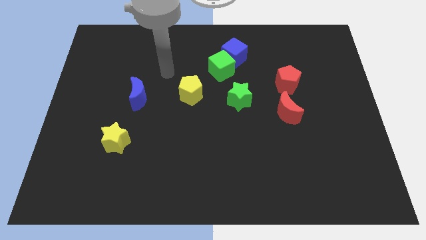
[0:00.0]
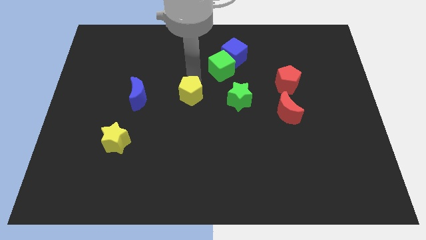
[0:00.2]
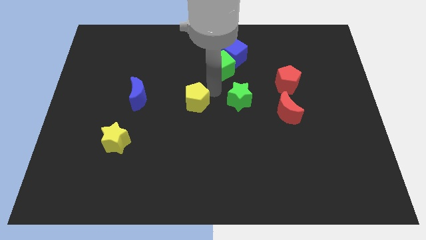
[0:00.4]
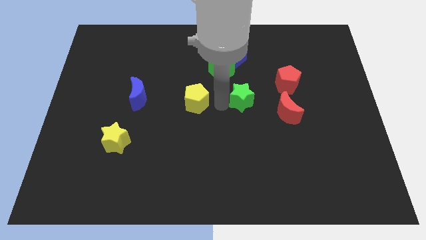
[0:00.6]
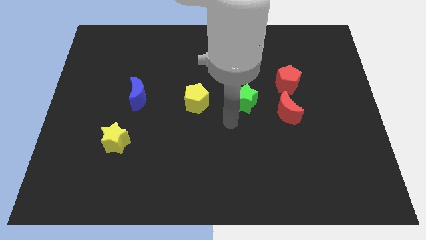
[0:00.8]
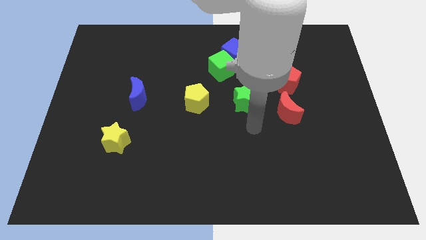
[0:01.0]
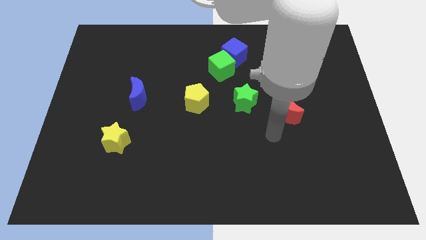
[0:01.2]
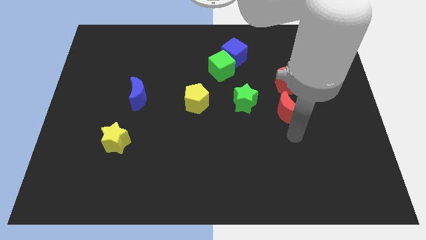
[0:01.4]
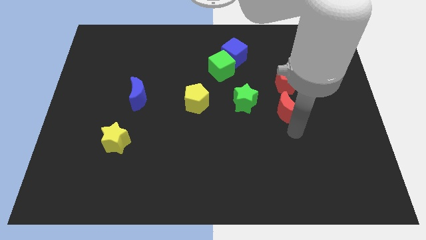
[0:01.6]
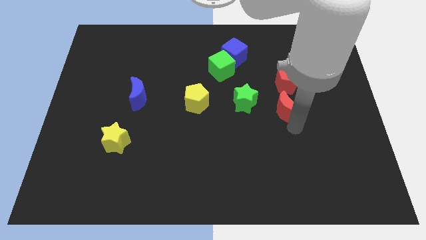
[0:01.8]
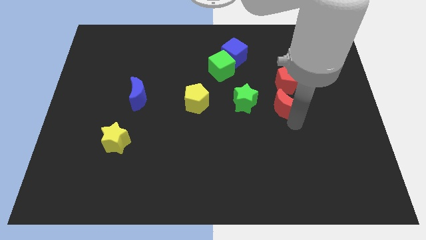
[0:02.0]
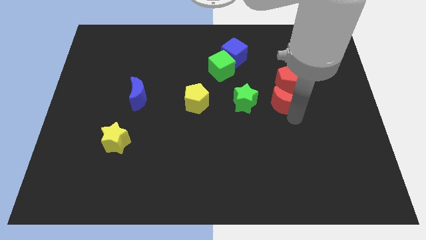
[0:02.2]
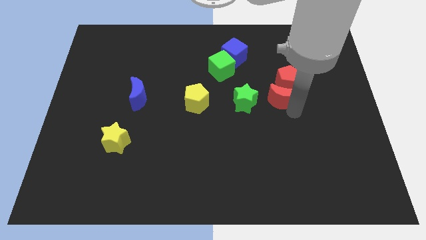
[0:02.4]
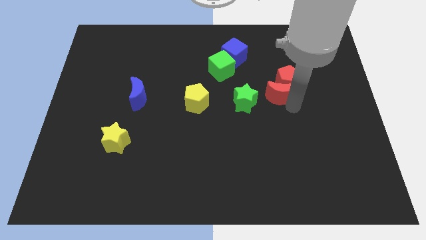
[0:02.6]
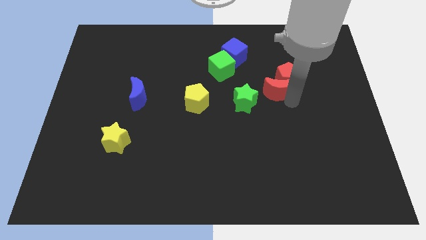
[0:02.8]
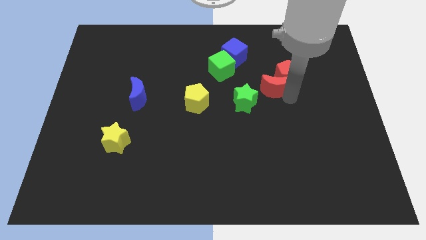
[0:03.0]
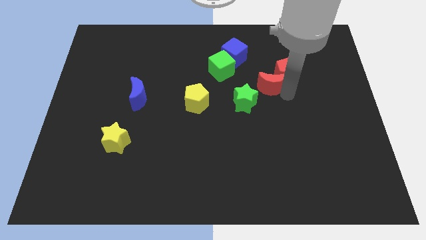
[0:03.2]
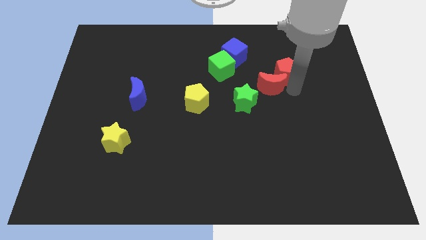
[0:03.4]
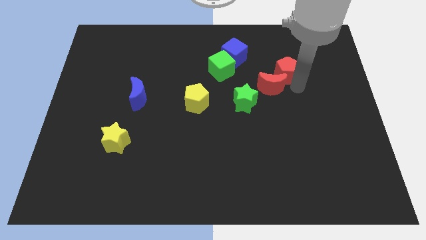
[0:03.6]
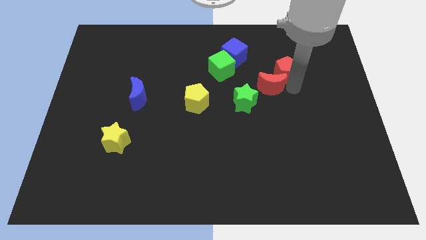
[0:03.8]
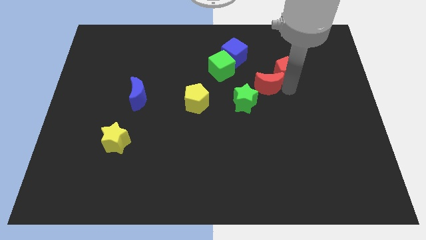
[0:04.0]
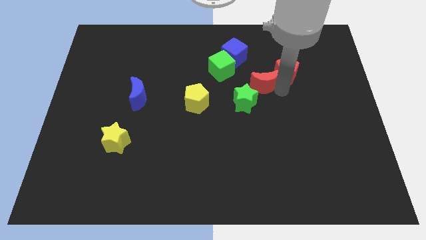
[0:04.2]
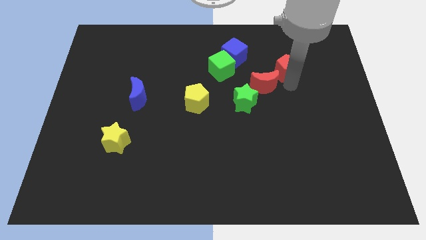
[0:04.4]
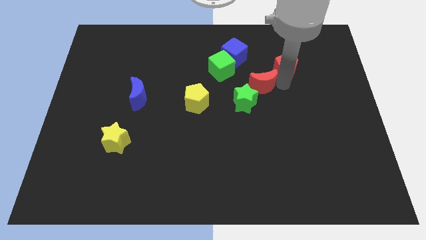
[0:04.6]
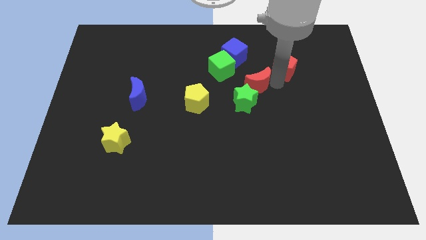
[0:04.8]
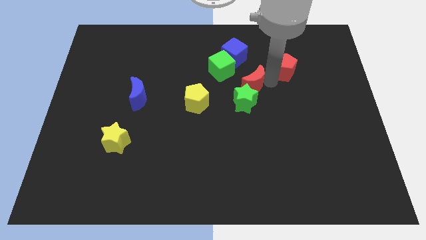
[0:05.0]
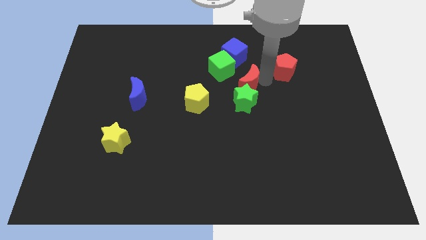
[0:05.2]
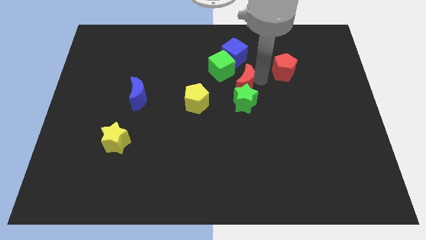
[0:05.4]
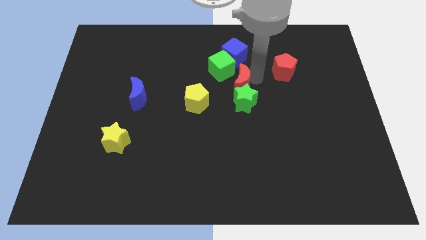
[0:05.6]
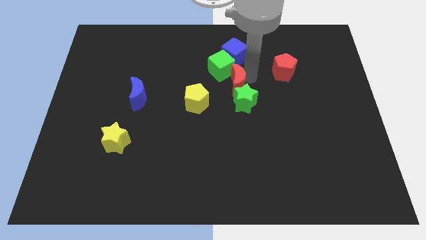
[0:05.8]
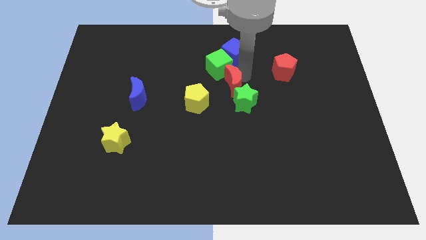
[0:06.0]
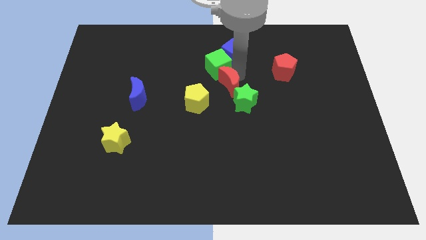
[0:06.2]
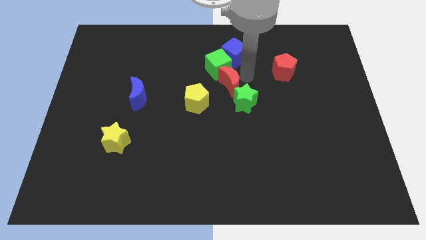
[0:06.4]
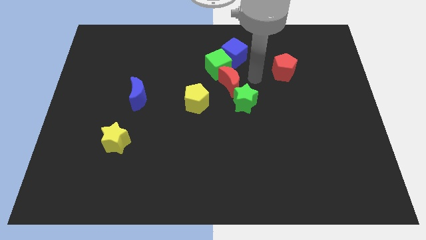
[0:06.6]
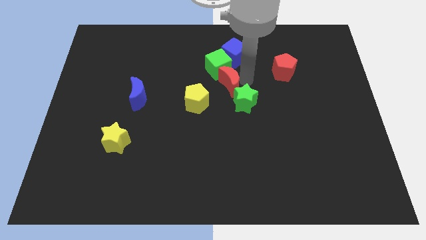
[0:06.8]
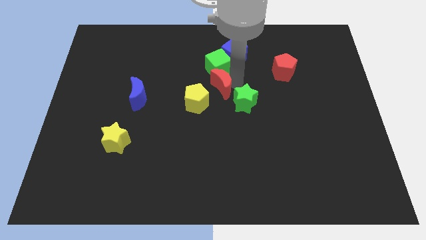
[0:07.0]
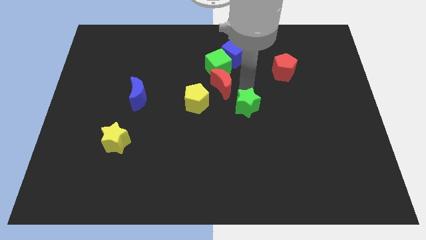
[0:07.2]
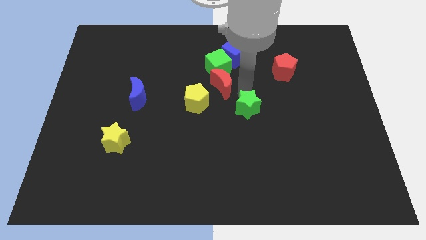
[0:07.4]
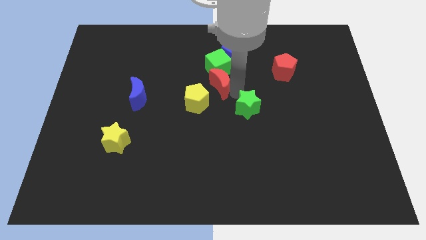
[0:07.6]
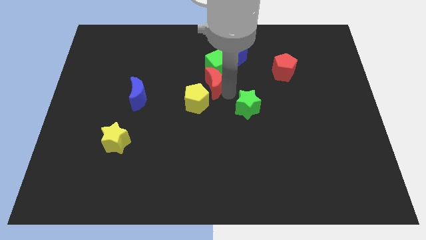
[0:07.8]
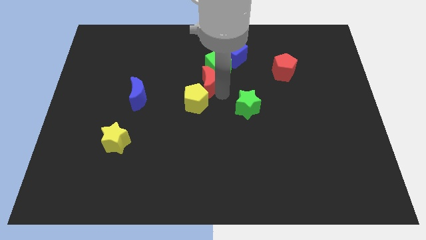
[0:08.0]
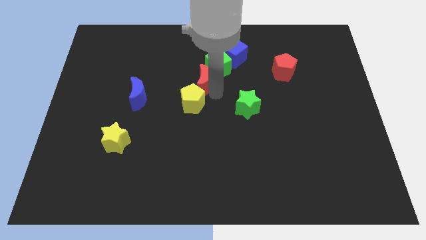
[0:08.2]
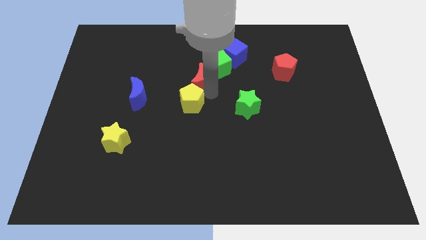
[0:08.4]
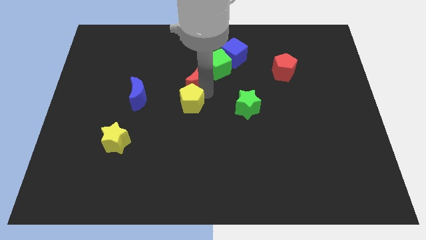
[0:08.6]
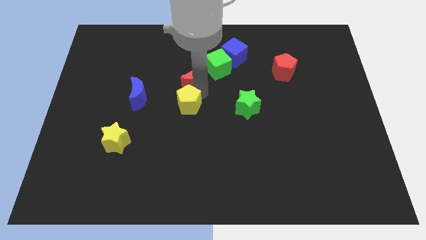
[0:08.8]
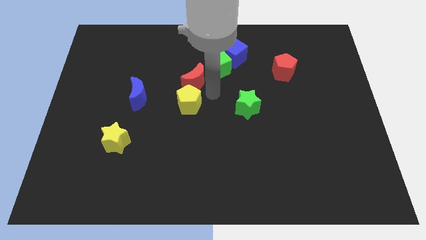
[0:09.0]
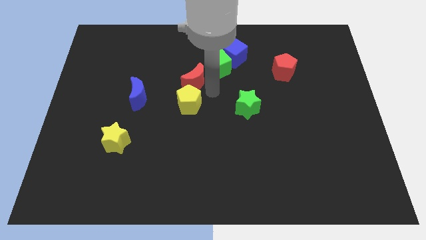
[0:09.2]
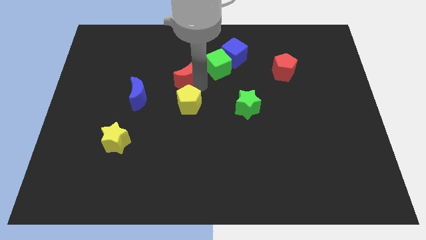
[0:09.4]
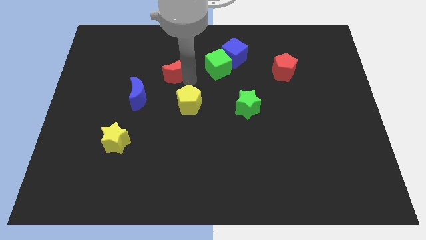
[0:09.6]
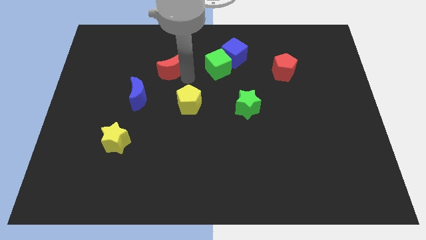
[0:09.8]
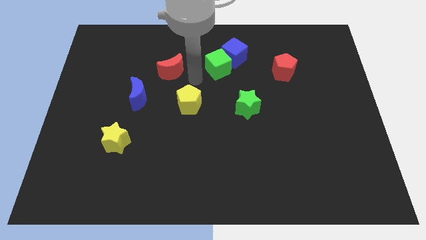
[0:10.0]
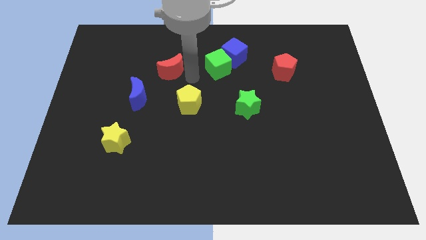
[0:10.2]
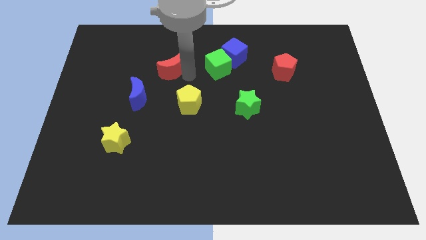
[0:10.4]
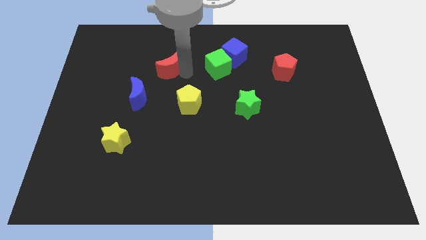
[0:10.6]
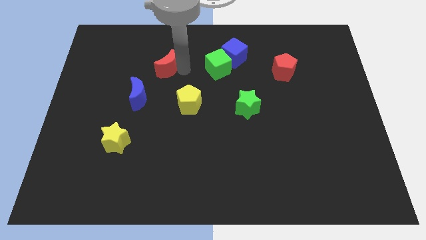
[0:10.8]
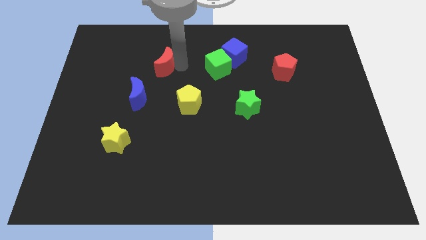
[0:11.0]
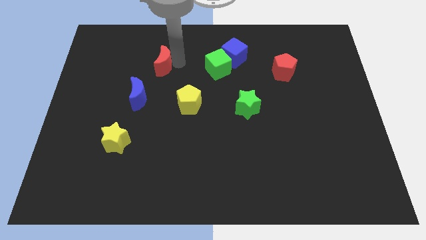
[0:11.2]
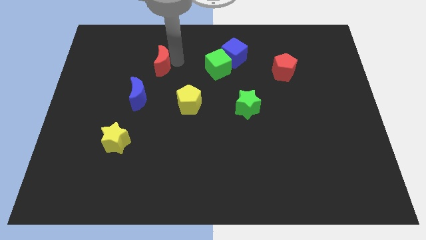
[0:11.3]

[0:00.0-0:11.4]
push the red moon above the blue moon
